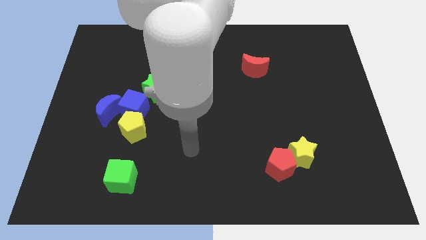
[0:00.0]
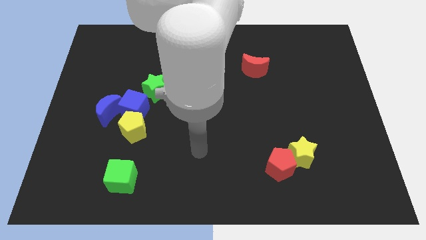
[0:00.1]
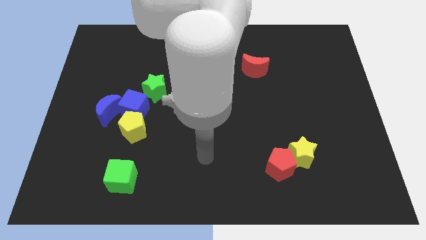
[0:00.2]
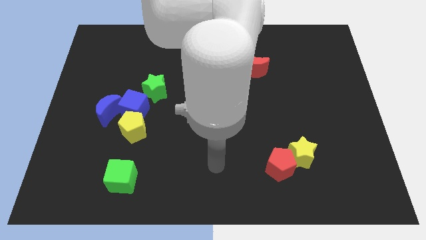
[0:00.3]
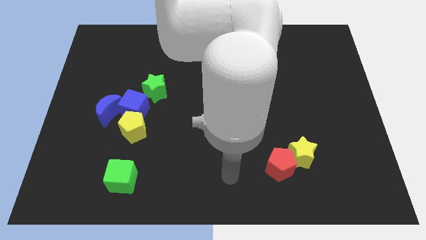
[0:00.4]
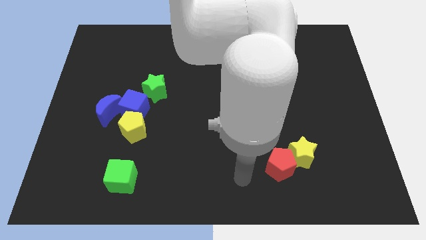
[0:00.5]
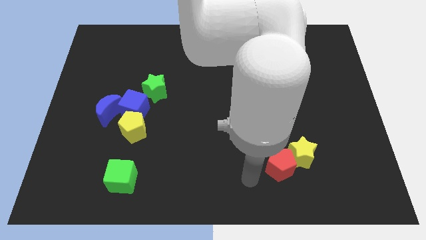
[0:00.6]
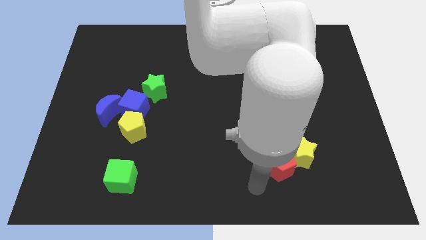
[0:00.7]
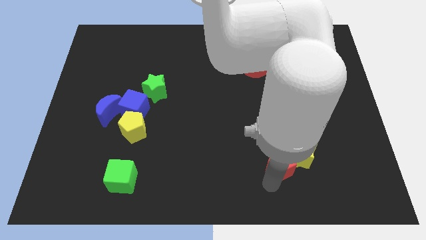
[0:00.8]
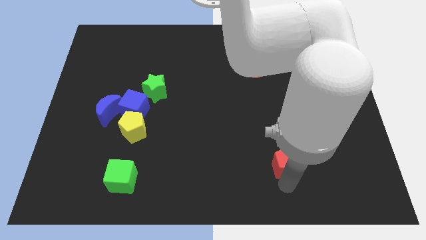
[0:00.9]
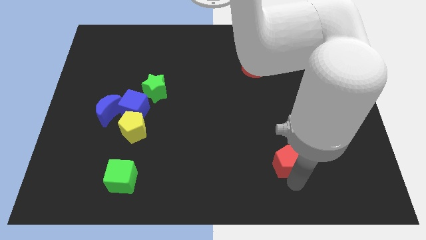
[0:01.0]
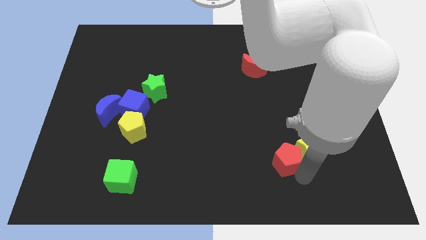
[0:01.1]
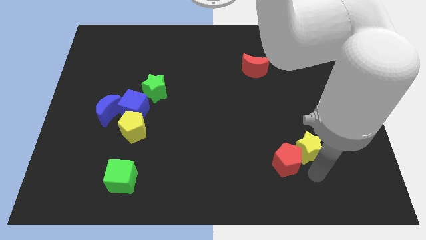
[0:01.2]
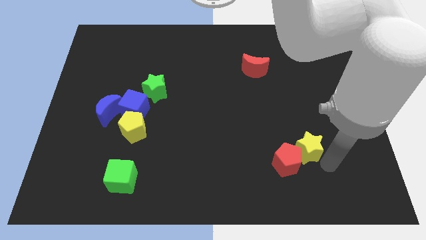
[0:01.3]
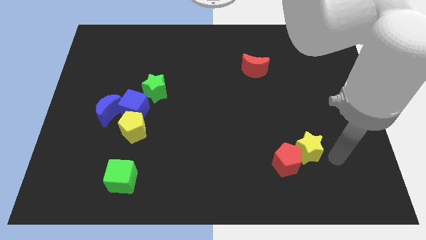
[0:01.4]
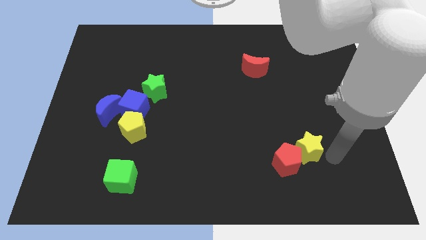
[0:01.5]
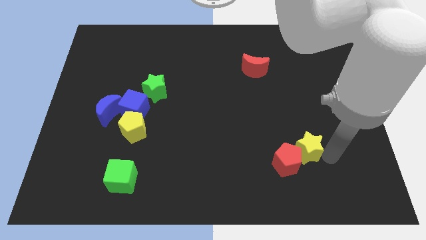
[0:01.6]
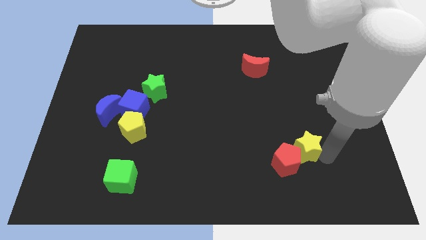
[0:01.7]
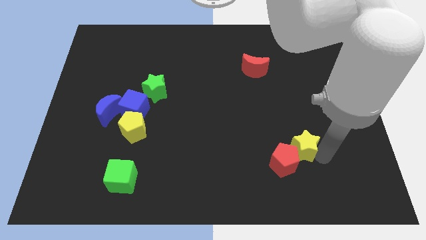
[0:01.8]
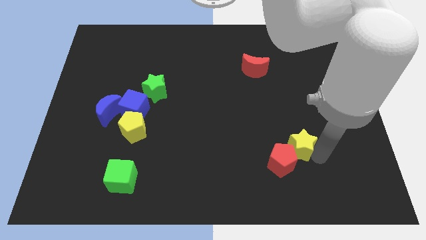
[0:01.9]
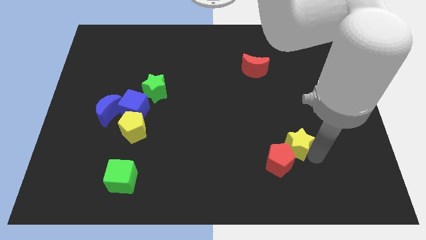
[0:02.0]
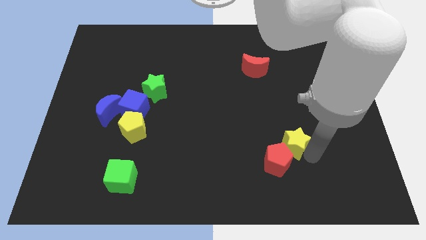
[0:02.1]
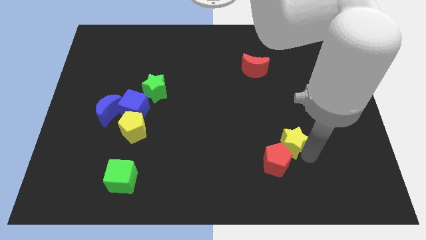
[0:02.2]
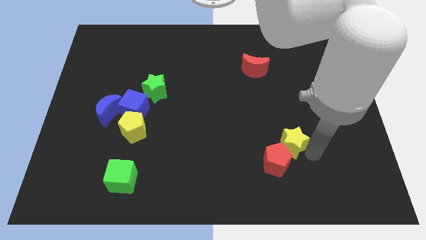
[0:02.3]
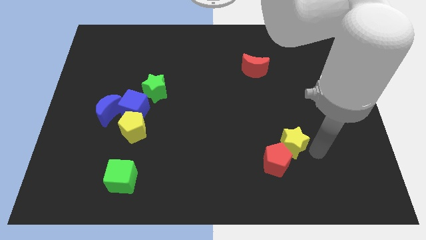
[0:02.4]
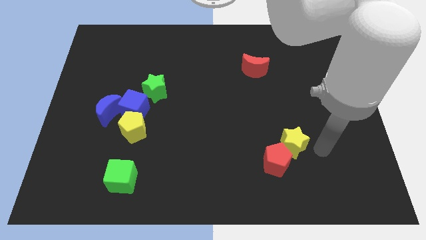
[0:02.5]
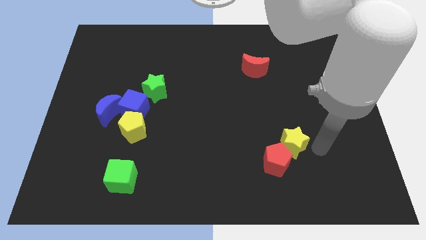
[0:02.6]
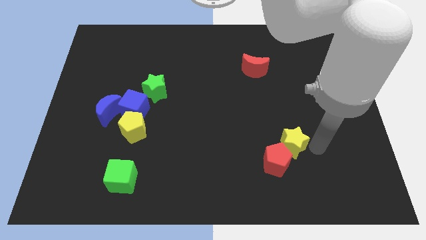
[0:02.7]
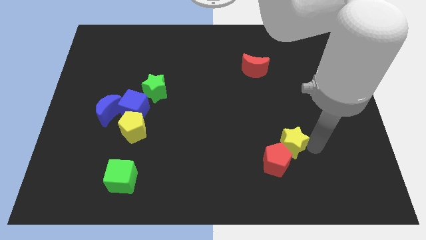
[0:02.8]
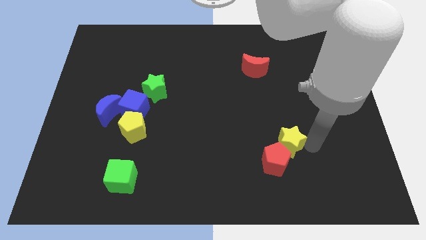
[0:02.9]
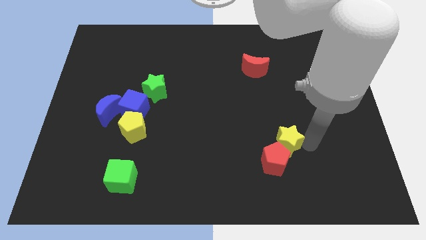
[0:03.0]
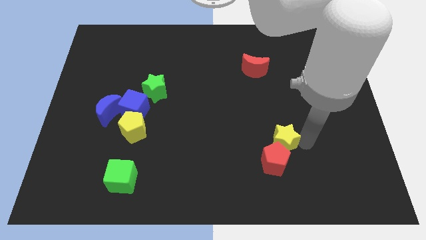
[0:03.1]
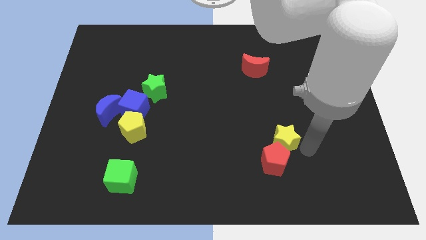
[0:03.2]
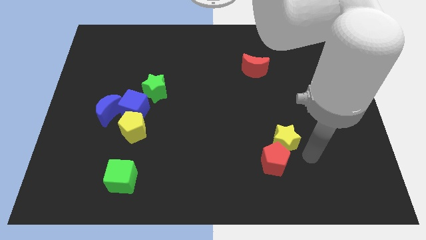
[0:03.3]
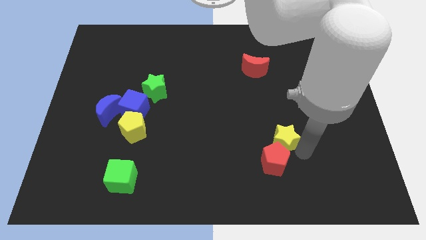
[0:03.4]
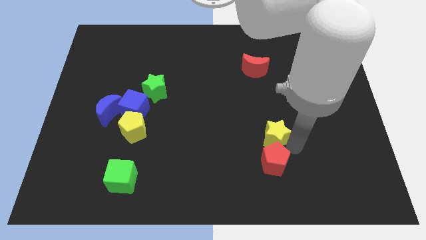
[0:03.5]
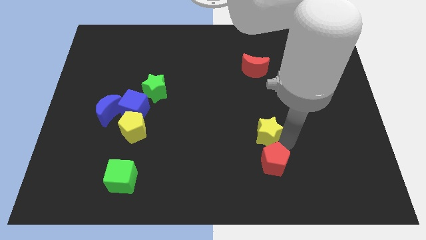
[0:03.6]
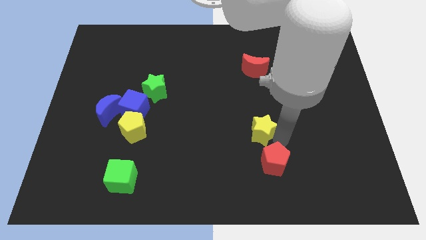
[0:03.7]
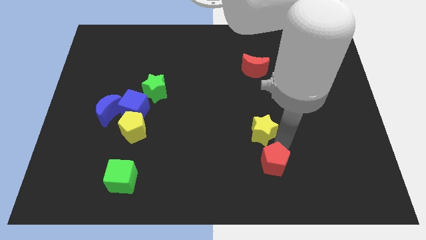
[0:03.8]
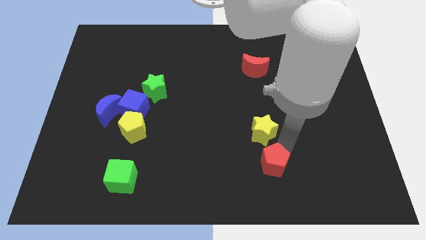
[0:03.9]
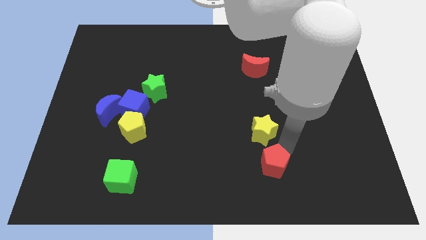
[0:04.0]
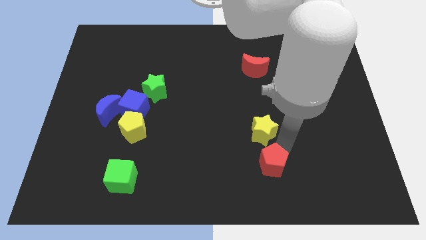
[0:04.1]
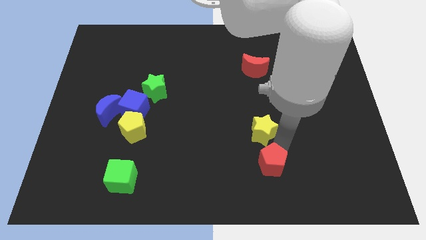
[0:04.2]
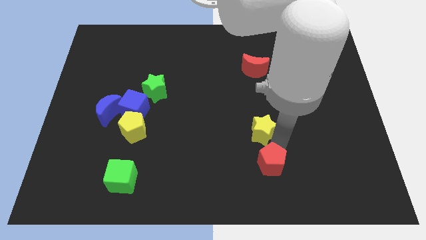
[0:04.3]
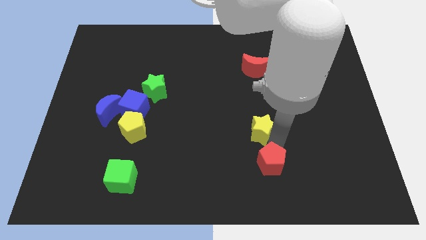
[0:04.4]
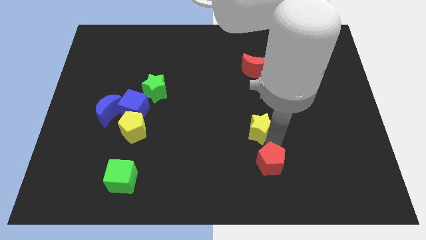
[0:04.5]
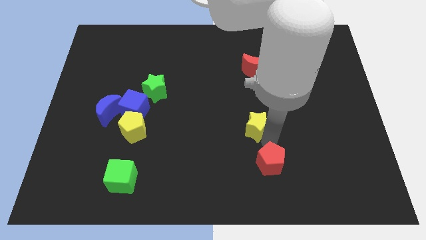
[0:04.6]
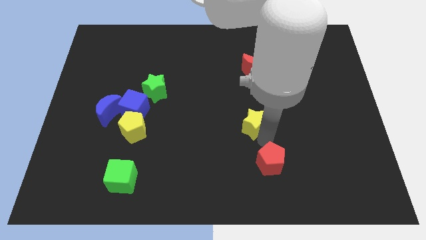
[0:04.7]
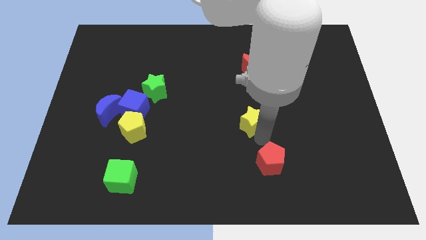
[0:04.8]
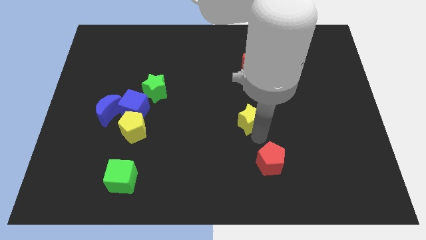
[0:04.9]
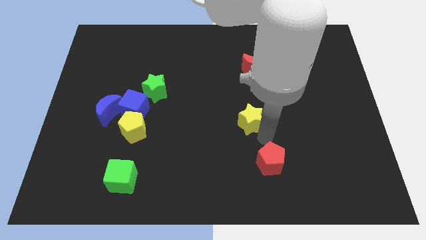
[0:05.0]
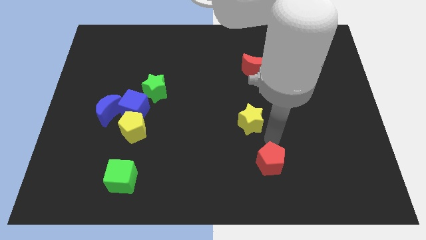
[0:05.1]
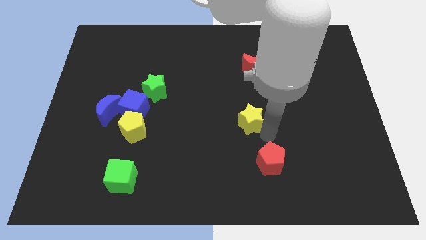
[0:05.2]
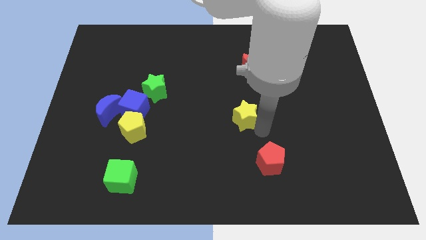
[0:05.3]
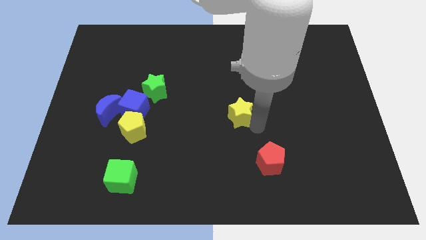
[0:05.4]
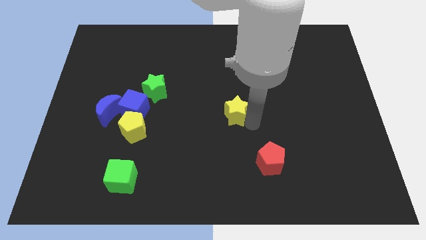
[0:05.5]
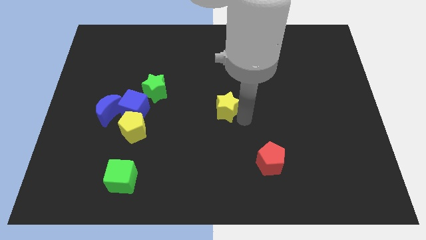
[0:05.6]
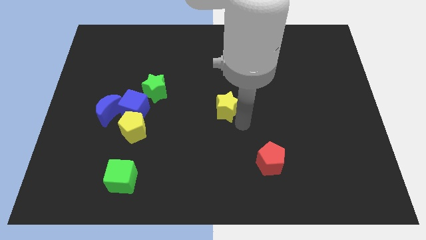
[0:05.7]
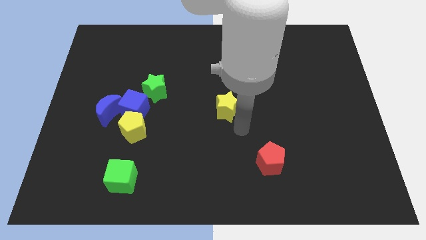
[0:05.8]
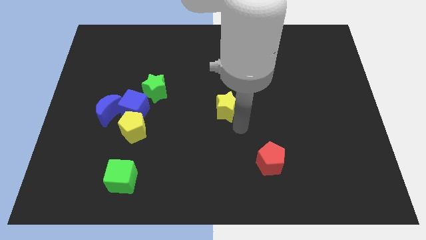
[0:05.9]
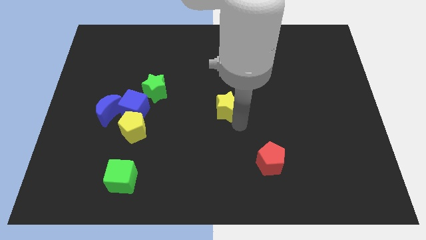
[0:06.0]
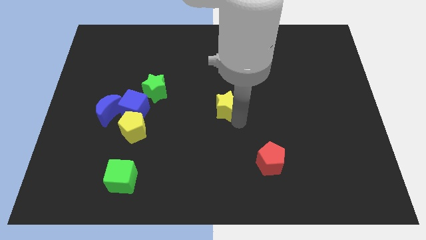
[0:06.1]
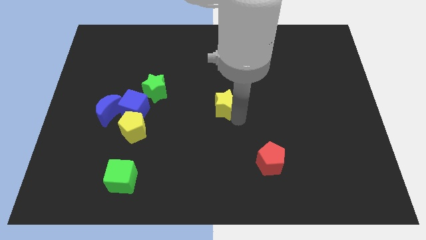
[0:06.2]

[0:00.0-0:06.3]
push the yellow star upwards and left

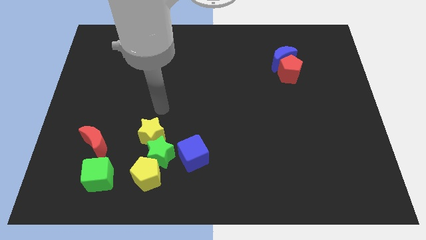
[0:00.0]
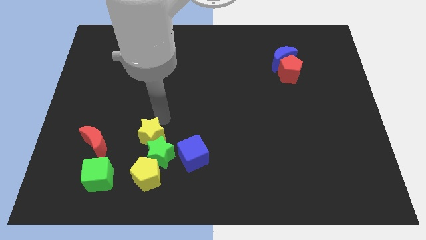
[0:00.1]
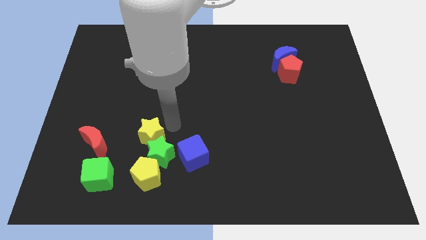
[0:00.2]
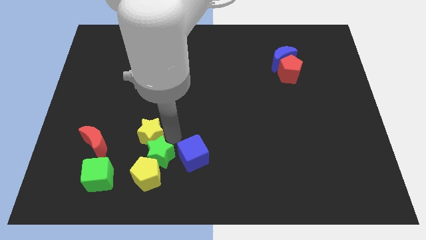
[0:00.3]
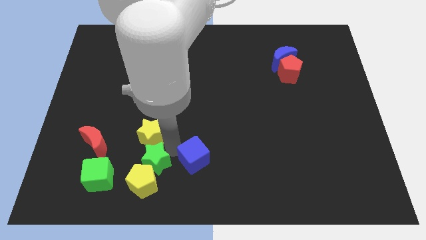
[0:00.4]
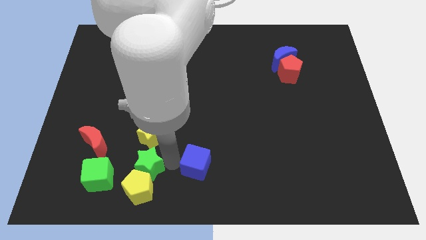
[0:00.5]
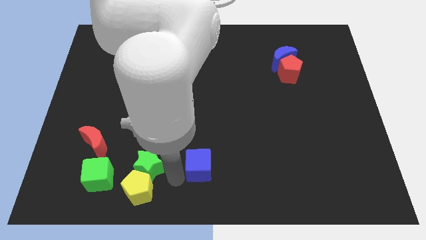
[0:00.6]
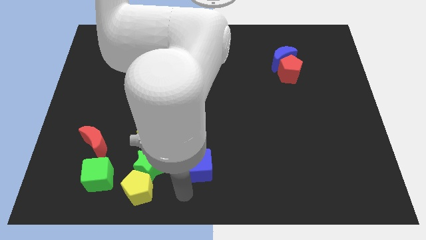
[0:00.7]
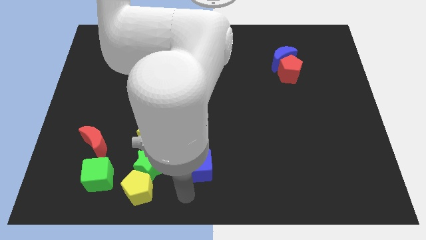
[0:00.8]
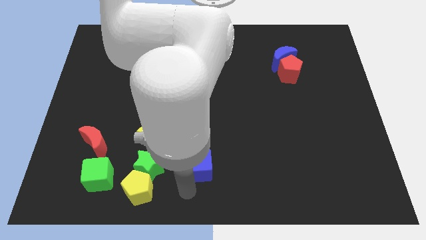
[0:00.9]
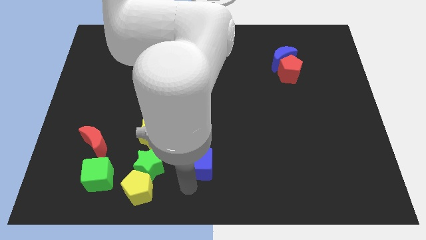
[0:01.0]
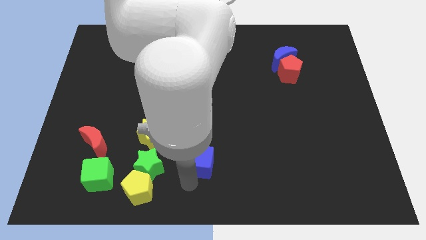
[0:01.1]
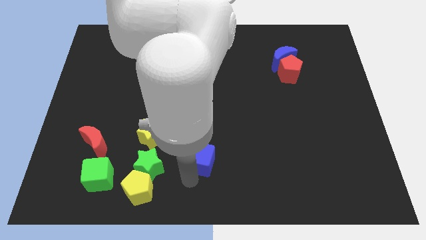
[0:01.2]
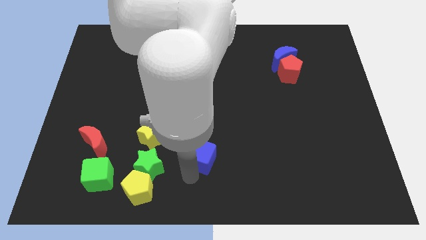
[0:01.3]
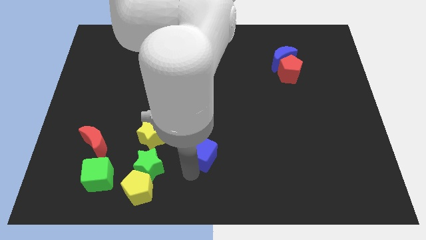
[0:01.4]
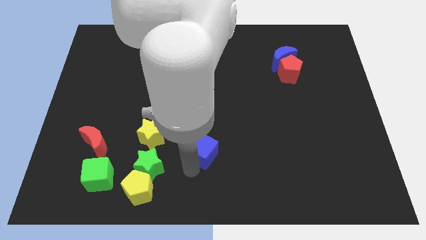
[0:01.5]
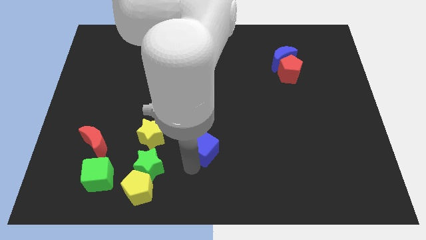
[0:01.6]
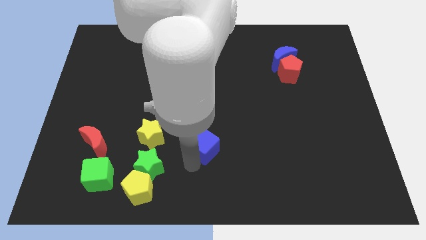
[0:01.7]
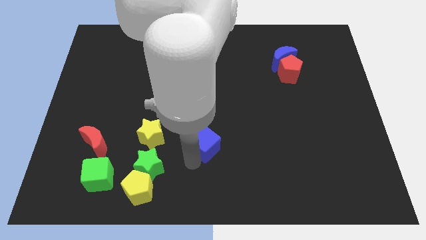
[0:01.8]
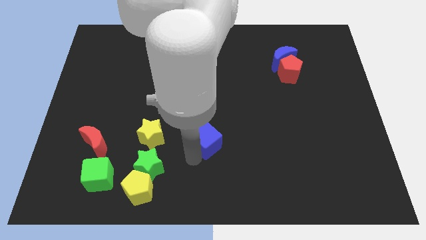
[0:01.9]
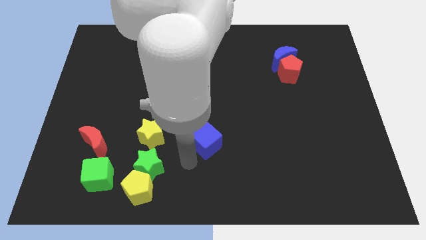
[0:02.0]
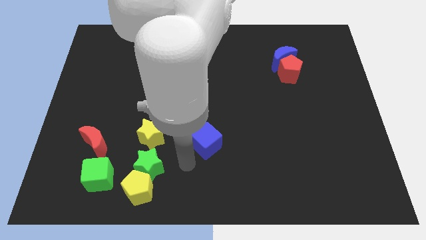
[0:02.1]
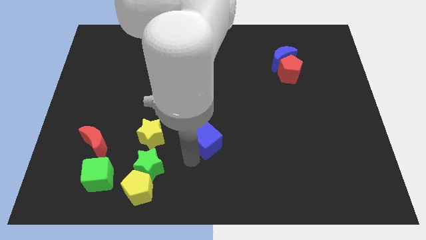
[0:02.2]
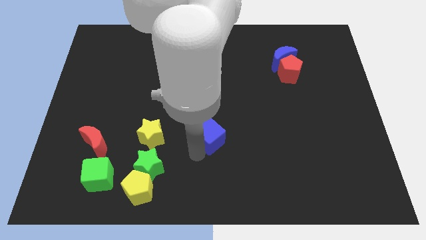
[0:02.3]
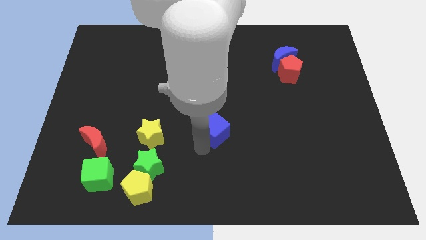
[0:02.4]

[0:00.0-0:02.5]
move the blue cube a bit up and right
